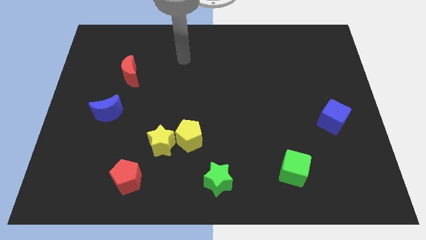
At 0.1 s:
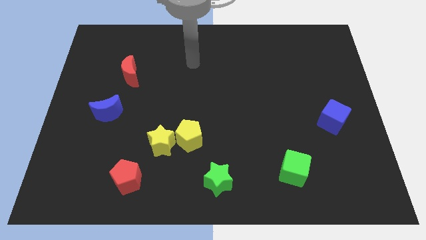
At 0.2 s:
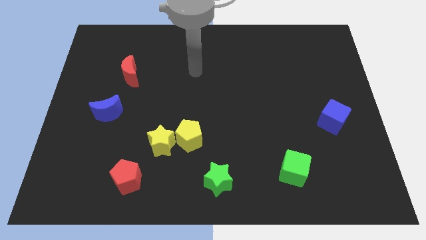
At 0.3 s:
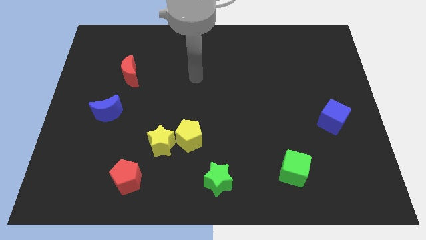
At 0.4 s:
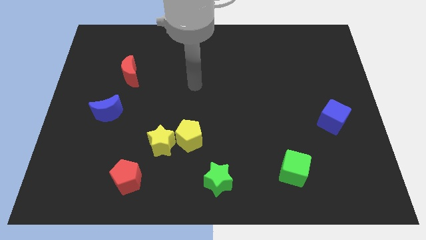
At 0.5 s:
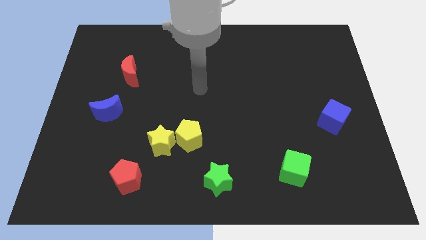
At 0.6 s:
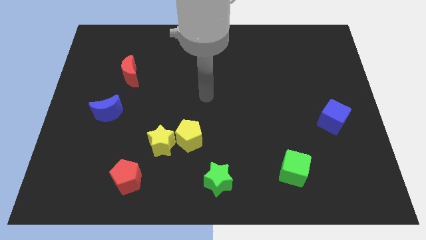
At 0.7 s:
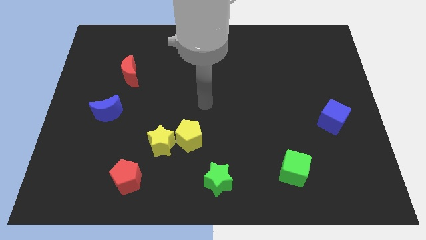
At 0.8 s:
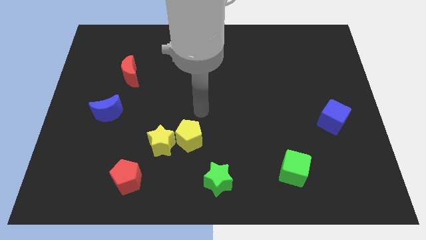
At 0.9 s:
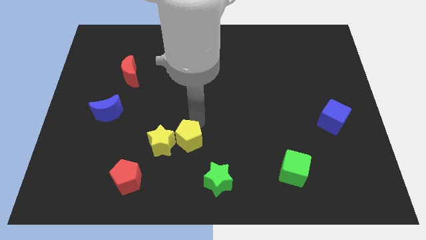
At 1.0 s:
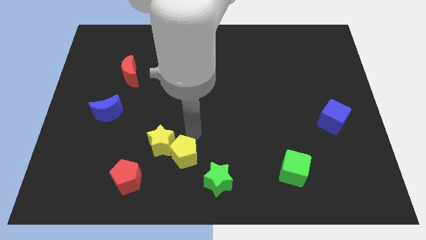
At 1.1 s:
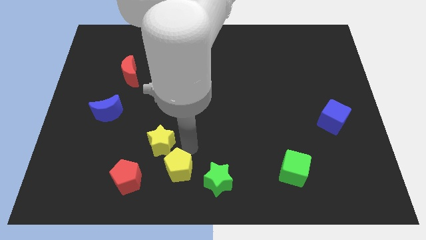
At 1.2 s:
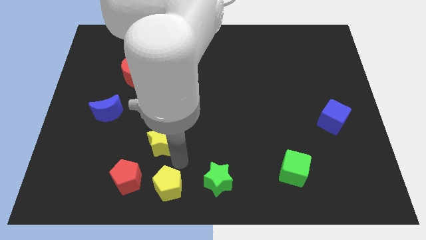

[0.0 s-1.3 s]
separate the yellow star from the yellow pentagon

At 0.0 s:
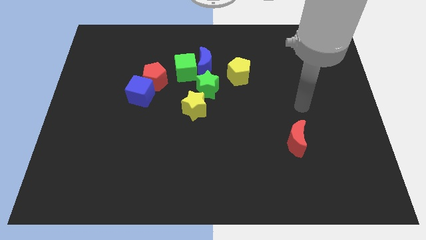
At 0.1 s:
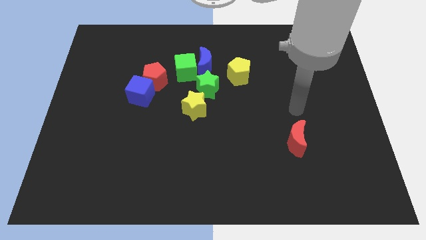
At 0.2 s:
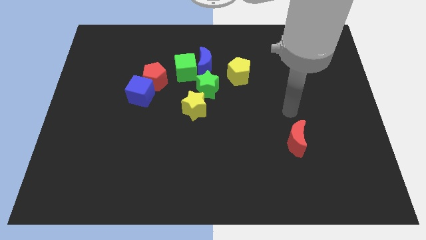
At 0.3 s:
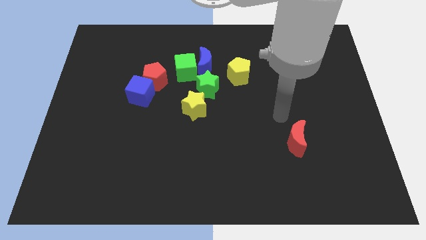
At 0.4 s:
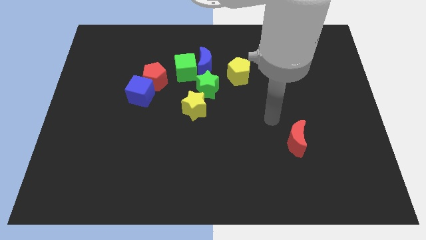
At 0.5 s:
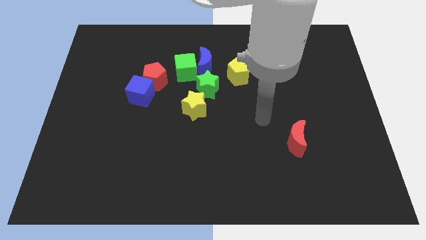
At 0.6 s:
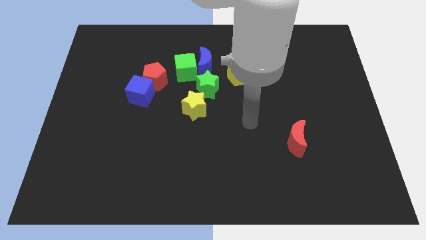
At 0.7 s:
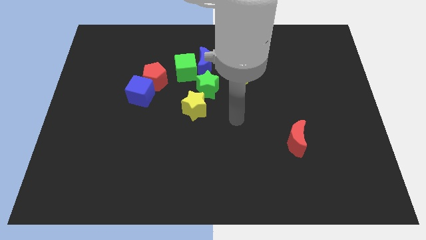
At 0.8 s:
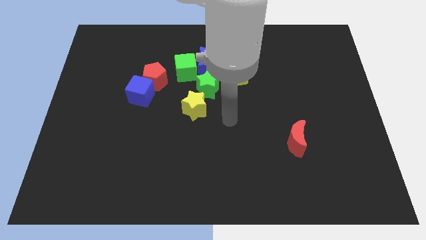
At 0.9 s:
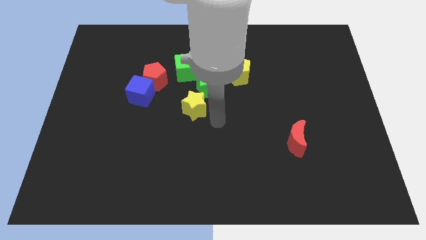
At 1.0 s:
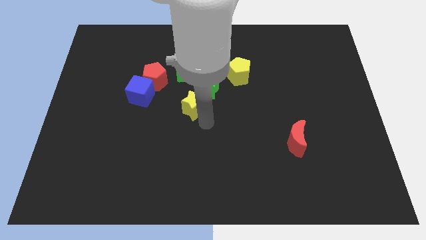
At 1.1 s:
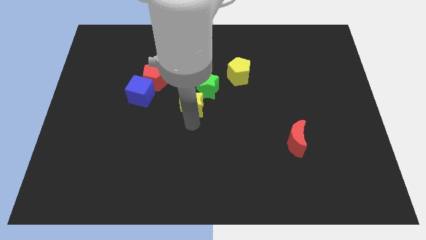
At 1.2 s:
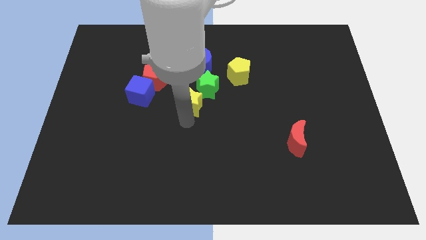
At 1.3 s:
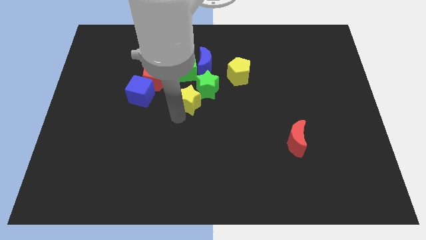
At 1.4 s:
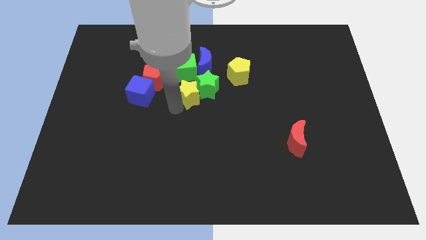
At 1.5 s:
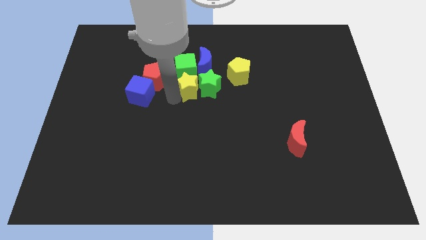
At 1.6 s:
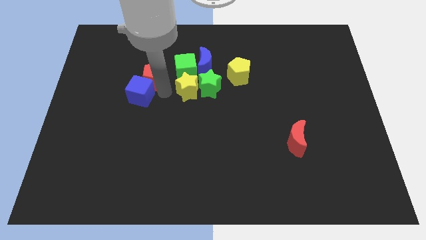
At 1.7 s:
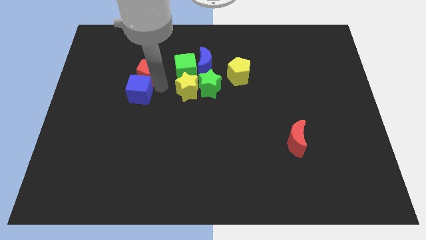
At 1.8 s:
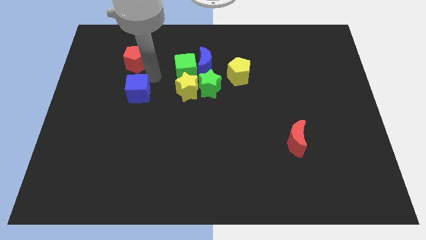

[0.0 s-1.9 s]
move the blue cube away from the red pentagon

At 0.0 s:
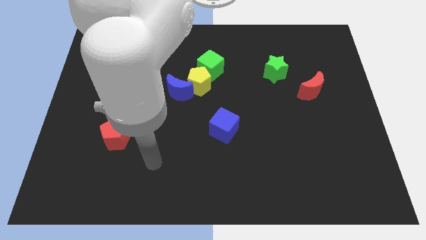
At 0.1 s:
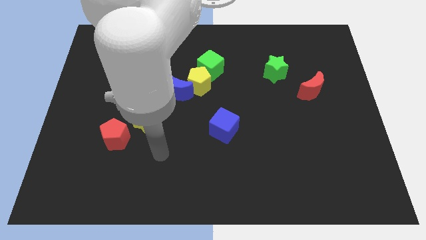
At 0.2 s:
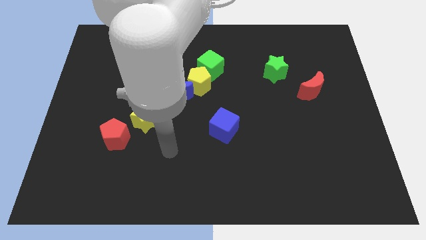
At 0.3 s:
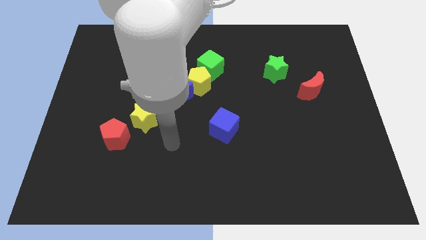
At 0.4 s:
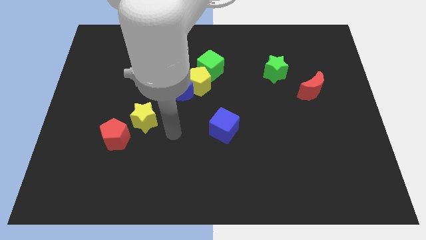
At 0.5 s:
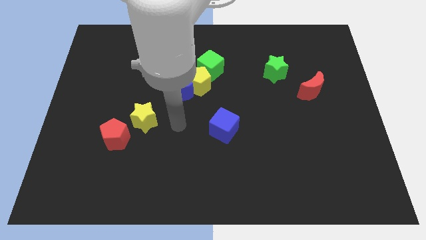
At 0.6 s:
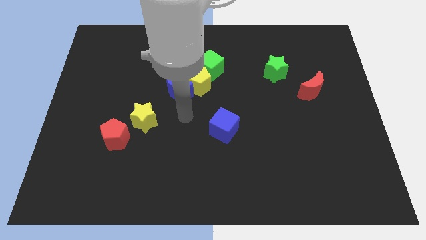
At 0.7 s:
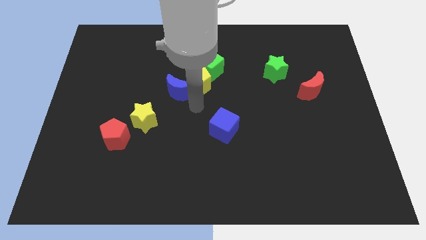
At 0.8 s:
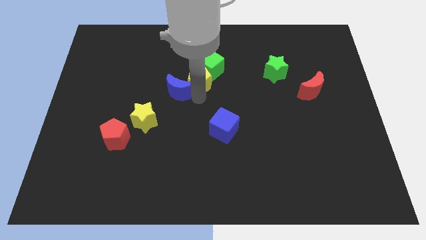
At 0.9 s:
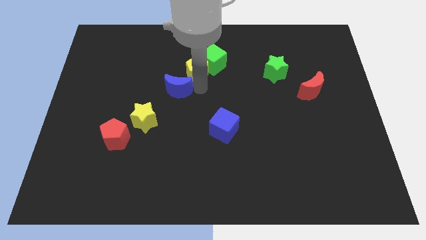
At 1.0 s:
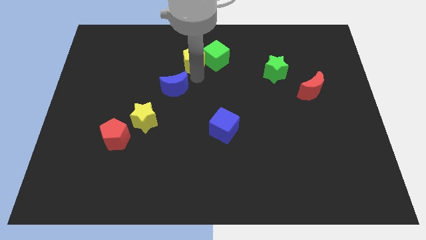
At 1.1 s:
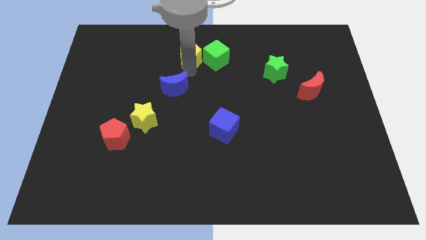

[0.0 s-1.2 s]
pull the blue moon apart from the yellow pentagon

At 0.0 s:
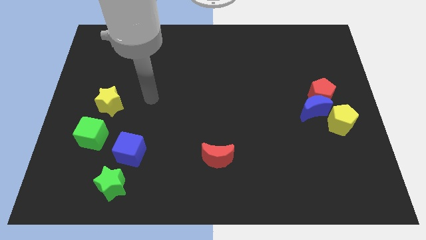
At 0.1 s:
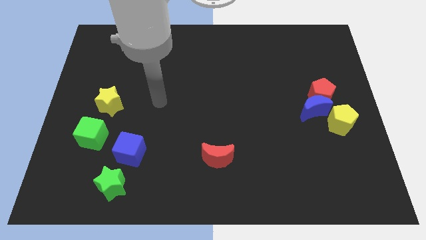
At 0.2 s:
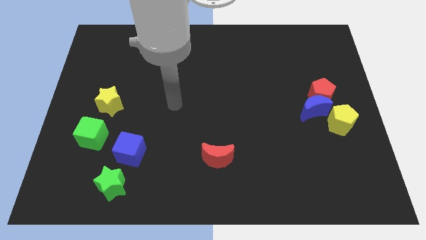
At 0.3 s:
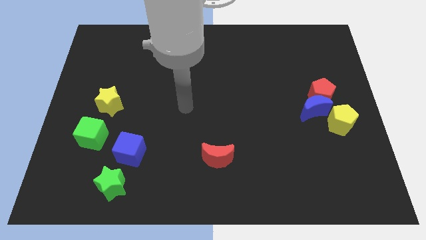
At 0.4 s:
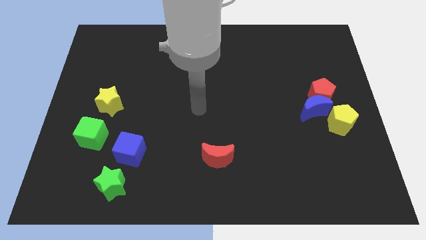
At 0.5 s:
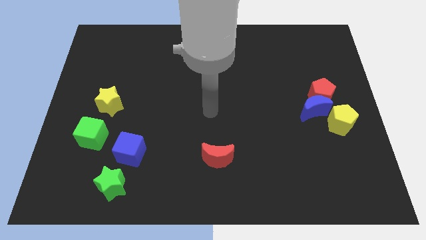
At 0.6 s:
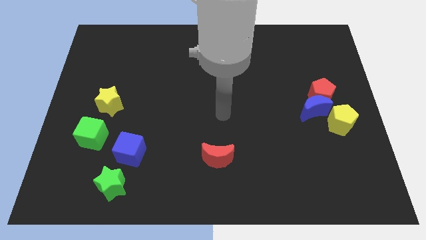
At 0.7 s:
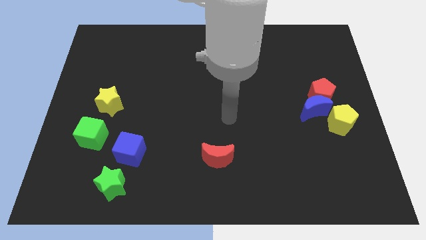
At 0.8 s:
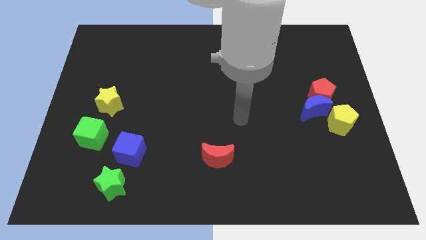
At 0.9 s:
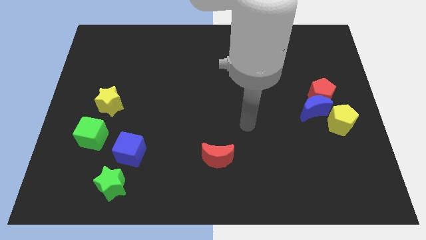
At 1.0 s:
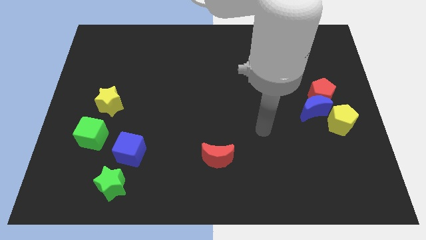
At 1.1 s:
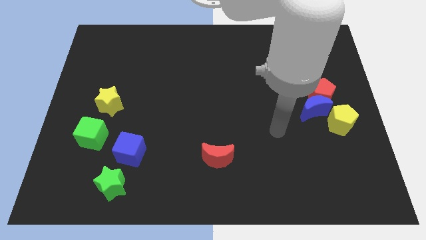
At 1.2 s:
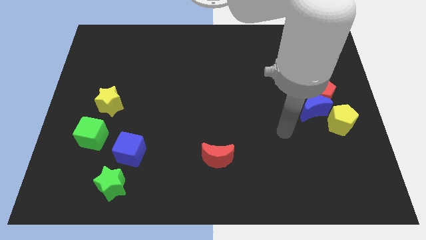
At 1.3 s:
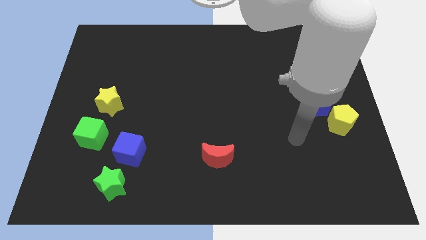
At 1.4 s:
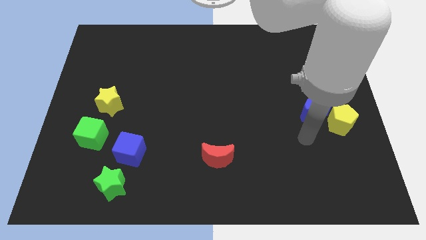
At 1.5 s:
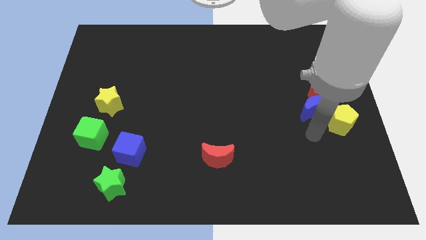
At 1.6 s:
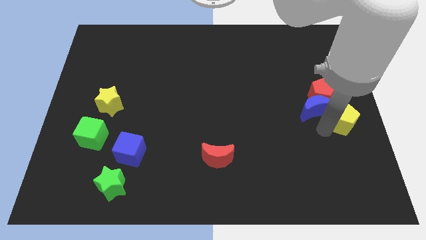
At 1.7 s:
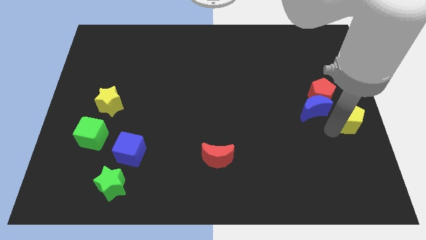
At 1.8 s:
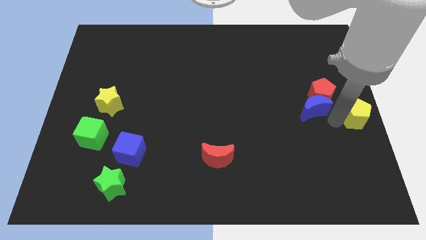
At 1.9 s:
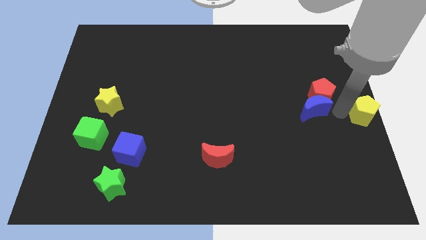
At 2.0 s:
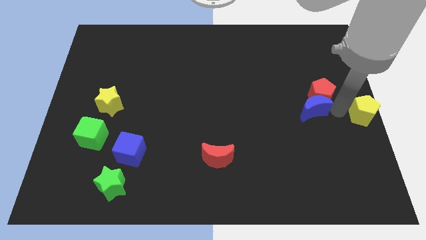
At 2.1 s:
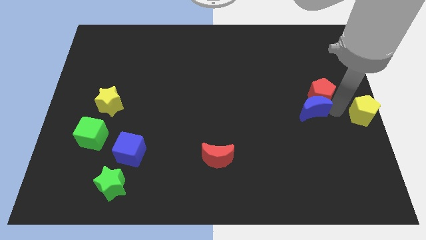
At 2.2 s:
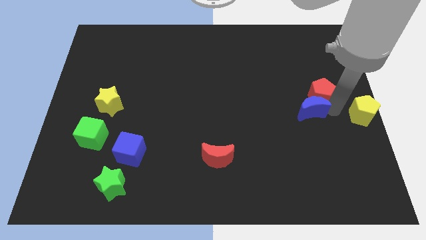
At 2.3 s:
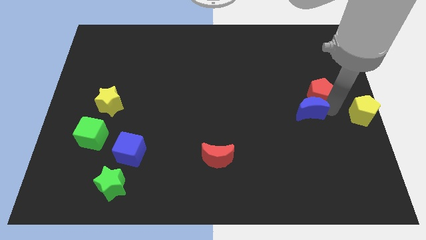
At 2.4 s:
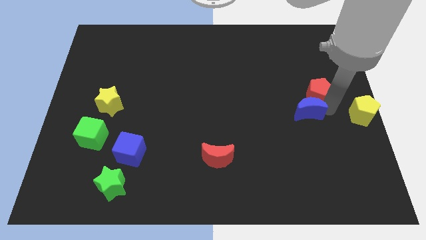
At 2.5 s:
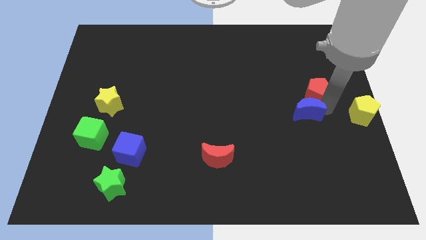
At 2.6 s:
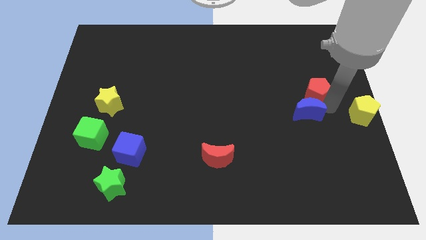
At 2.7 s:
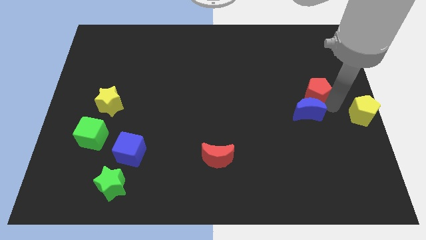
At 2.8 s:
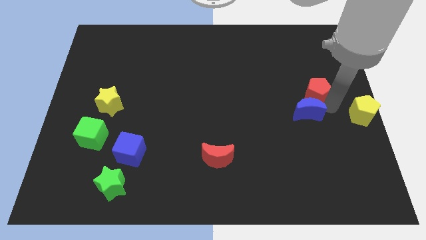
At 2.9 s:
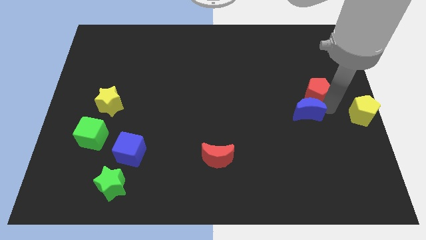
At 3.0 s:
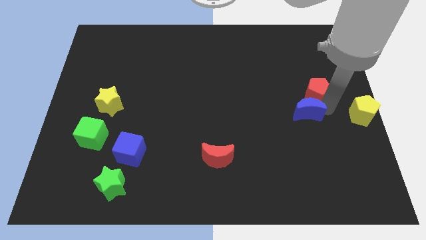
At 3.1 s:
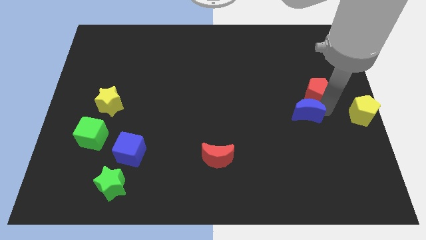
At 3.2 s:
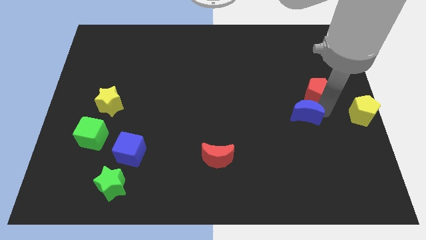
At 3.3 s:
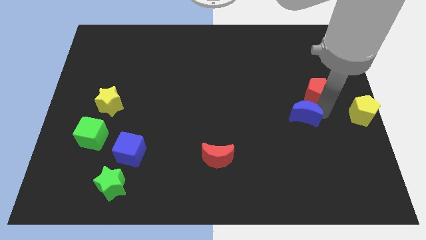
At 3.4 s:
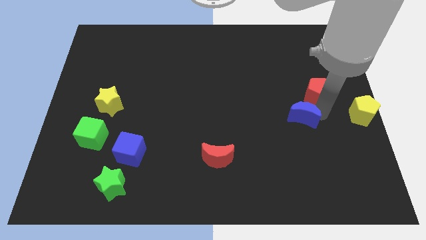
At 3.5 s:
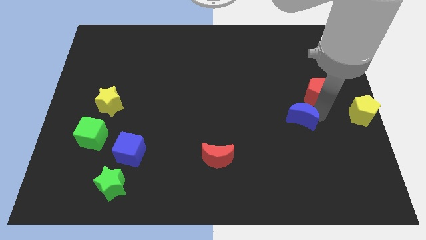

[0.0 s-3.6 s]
separate the blue moon from the red pentagon and yellow pentagon

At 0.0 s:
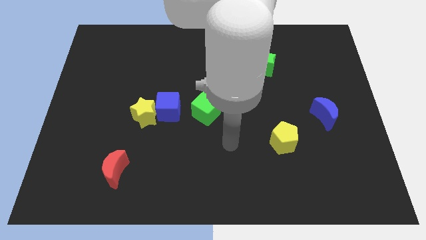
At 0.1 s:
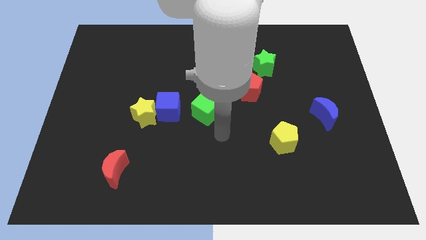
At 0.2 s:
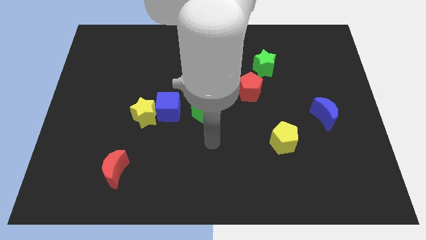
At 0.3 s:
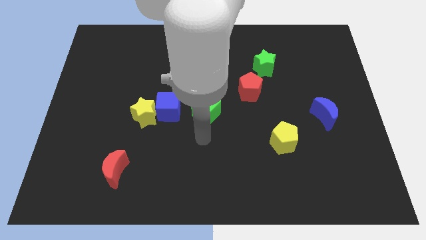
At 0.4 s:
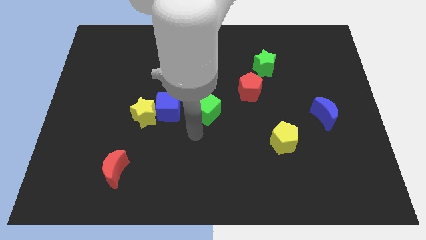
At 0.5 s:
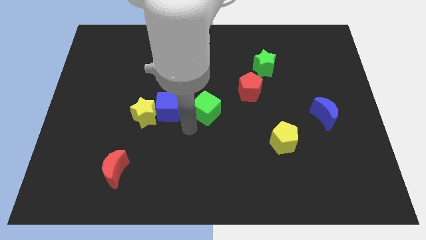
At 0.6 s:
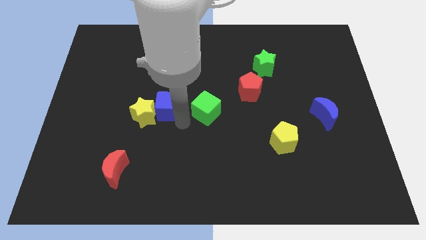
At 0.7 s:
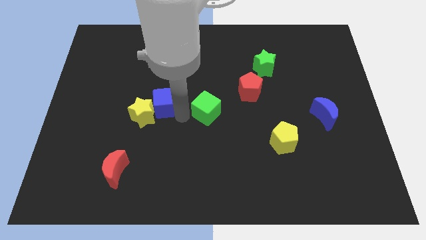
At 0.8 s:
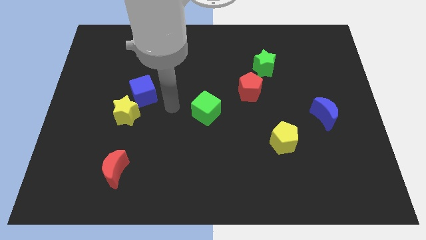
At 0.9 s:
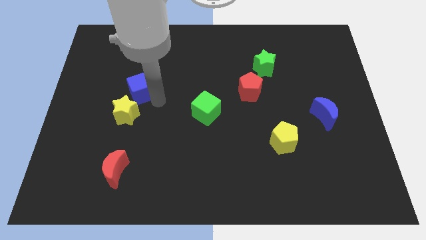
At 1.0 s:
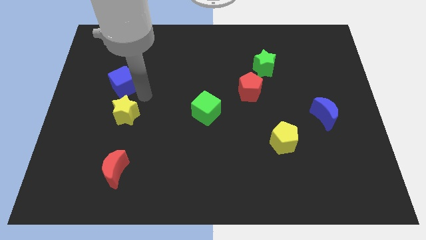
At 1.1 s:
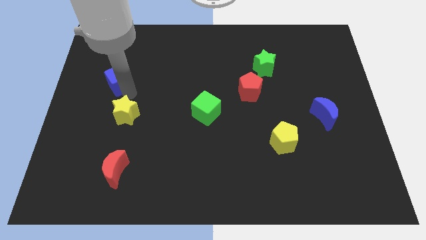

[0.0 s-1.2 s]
pull the yellow star apart from the blue cube

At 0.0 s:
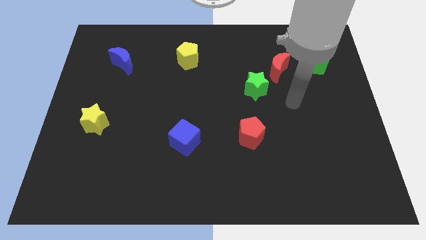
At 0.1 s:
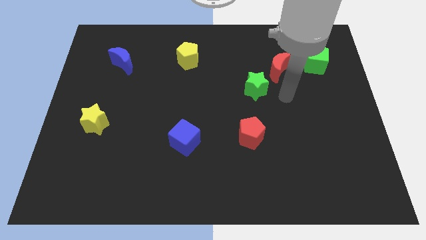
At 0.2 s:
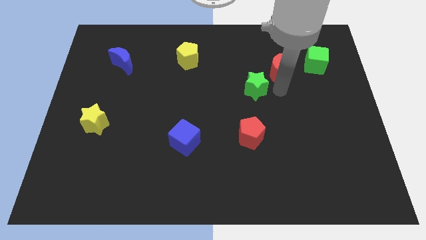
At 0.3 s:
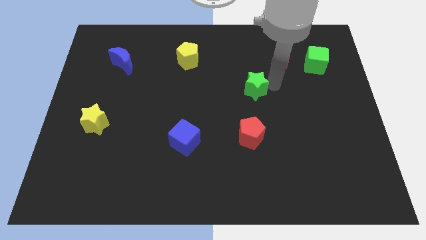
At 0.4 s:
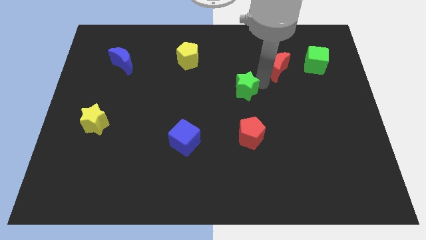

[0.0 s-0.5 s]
separate the red moon from the green star
